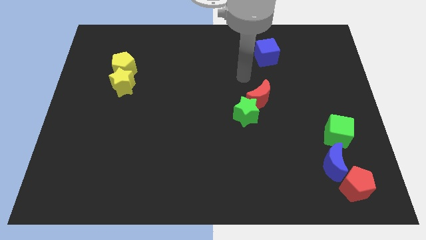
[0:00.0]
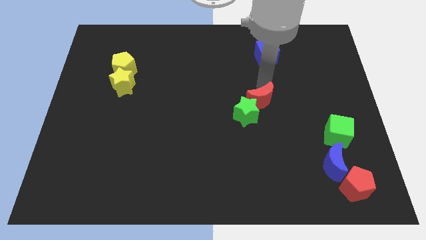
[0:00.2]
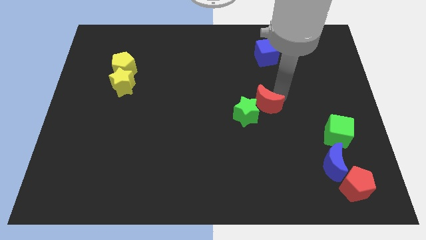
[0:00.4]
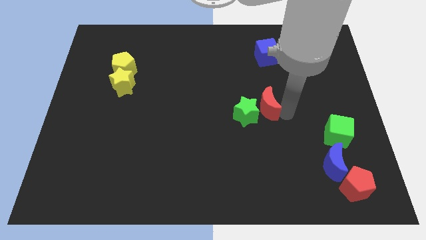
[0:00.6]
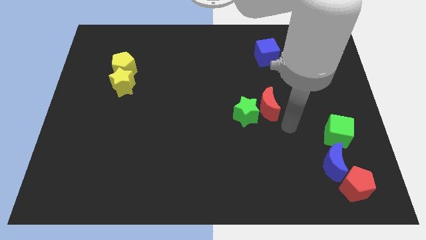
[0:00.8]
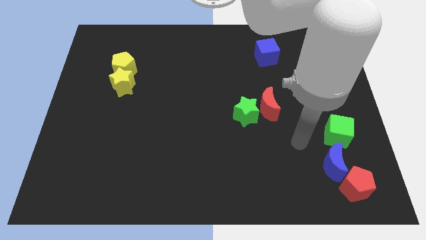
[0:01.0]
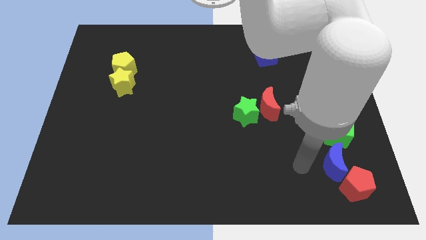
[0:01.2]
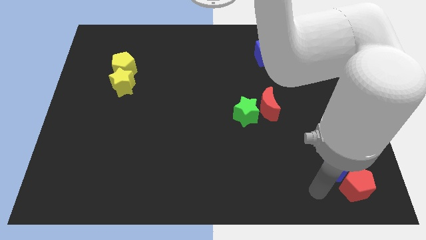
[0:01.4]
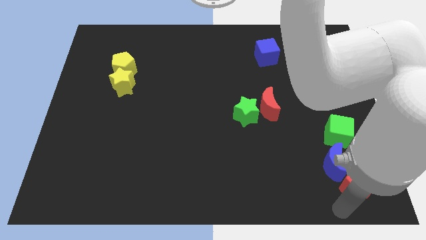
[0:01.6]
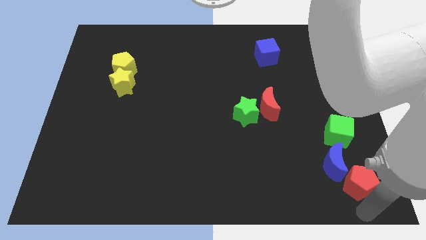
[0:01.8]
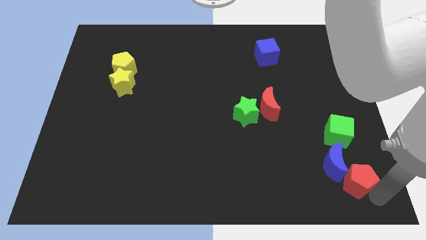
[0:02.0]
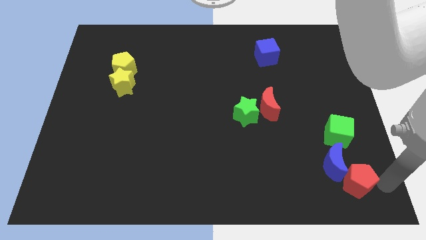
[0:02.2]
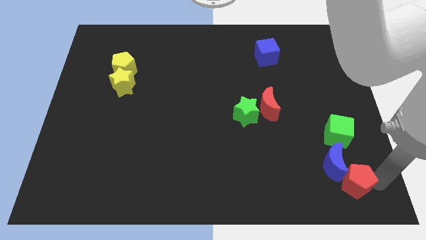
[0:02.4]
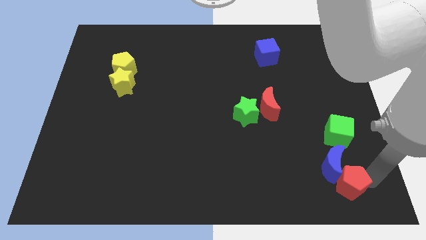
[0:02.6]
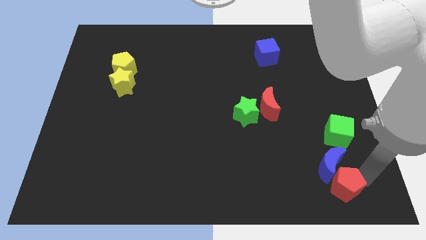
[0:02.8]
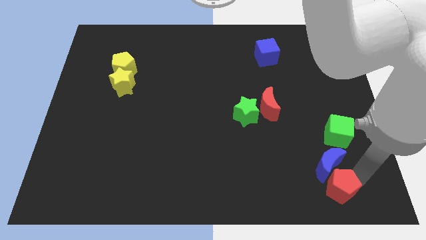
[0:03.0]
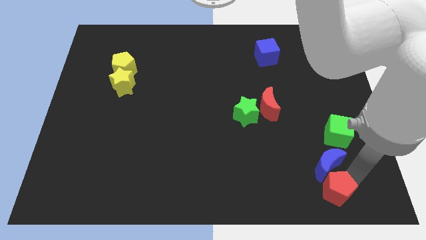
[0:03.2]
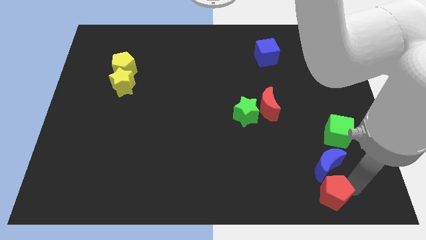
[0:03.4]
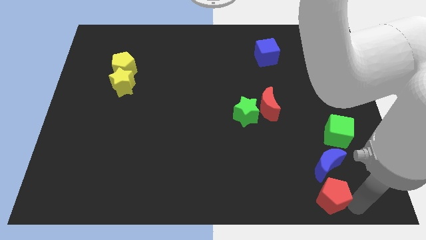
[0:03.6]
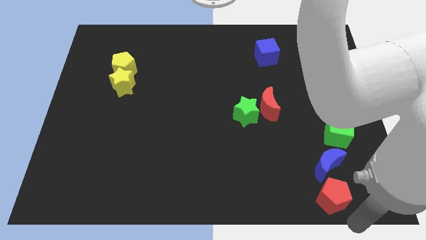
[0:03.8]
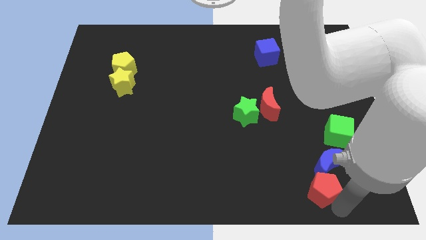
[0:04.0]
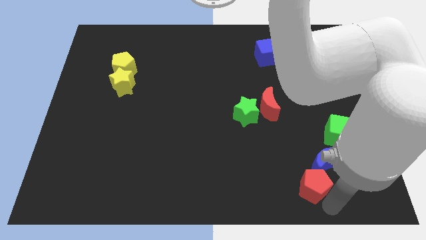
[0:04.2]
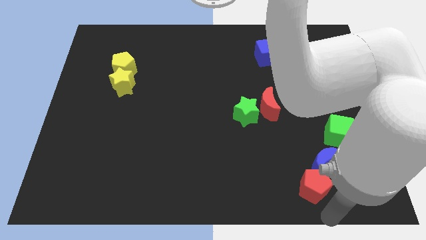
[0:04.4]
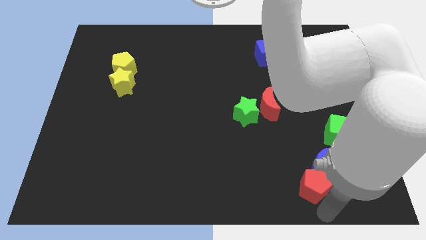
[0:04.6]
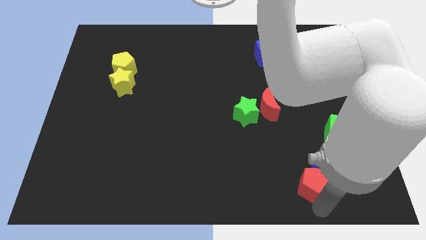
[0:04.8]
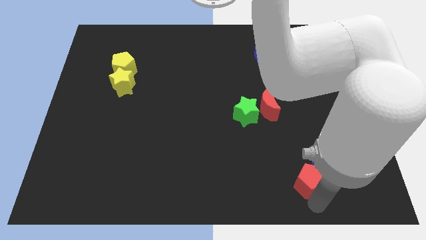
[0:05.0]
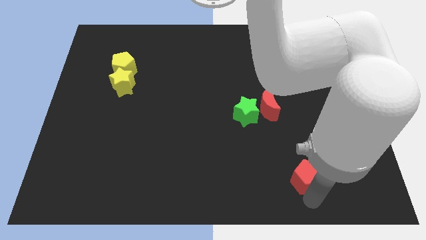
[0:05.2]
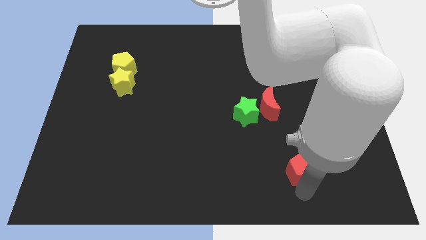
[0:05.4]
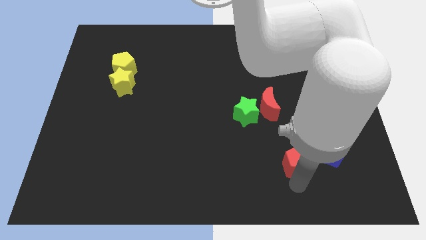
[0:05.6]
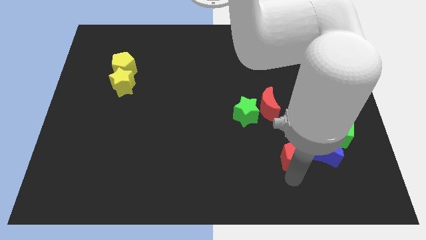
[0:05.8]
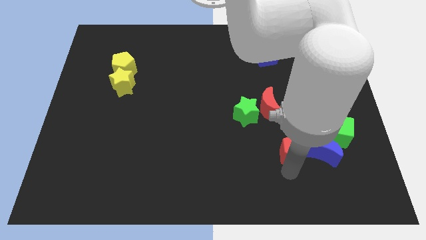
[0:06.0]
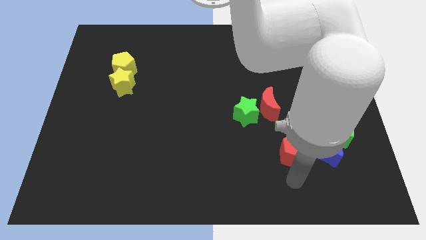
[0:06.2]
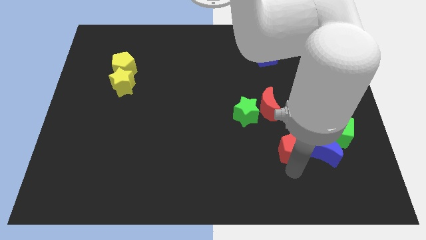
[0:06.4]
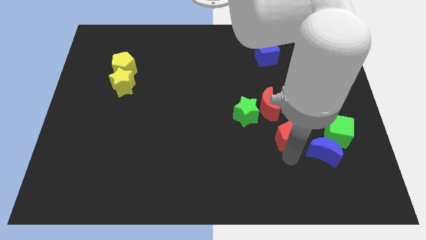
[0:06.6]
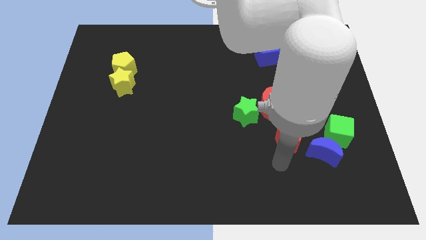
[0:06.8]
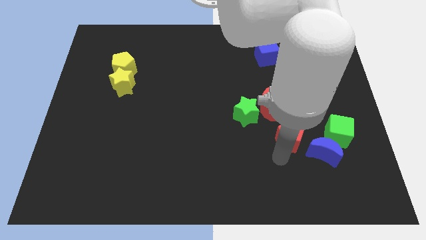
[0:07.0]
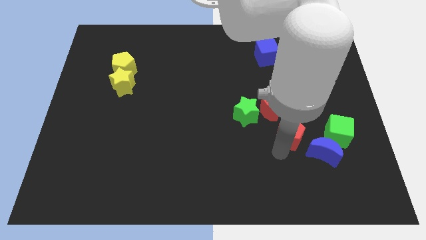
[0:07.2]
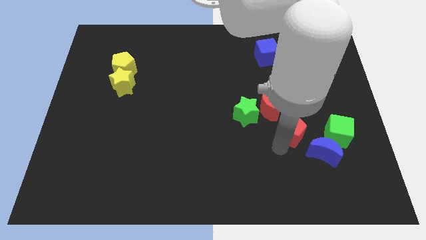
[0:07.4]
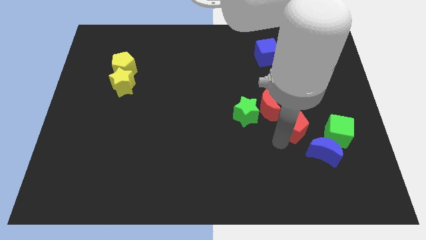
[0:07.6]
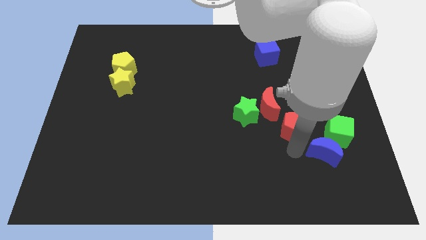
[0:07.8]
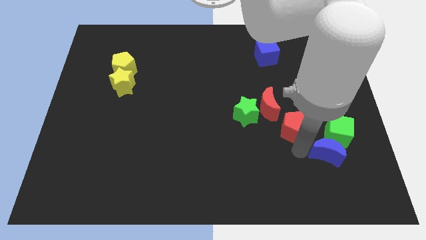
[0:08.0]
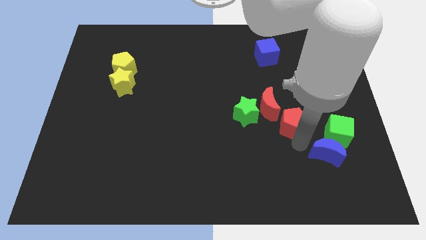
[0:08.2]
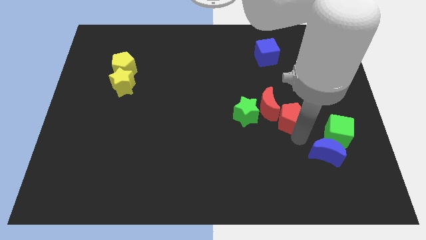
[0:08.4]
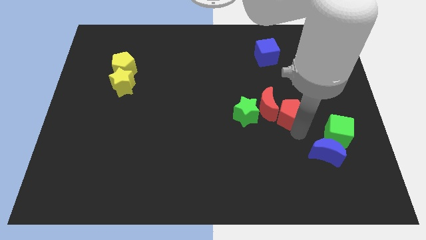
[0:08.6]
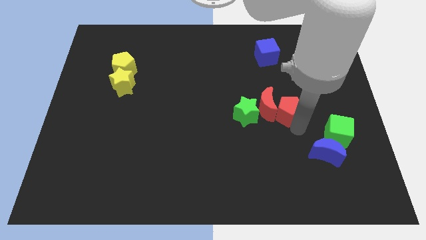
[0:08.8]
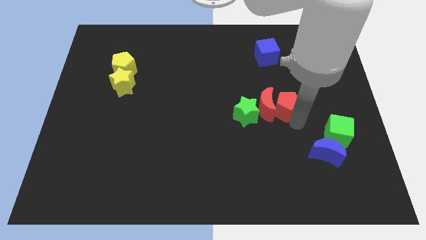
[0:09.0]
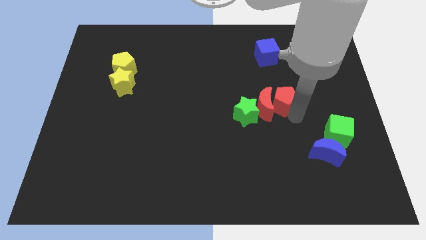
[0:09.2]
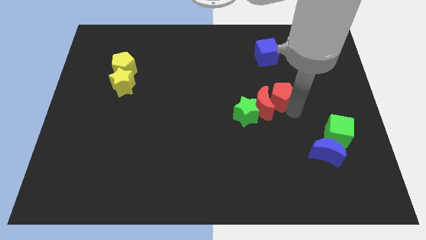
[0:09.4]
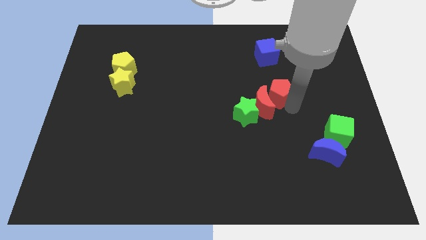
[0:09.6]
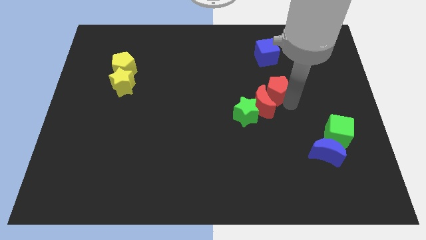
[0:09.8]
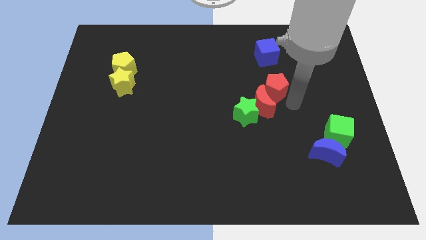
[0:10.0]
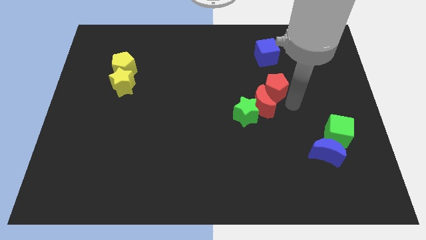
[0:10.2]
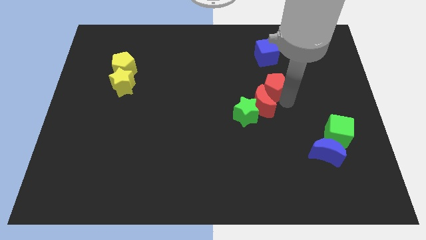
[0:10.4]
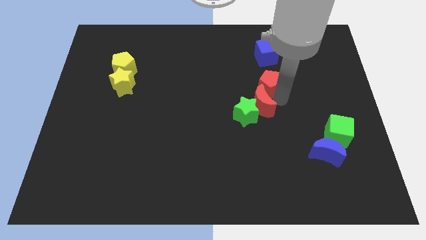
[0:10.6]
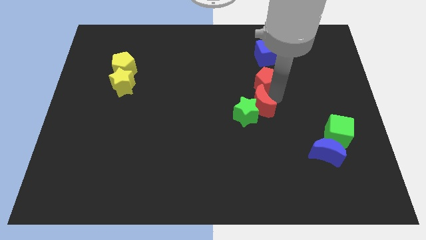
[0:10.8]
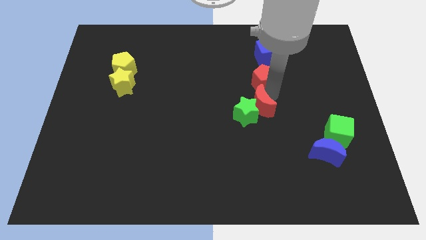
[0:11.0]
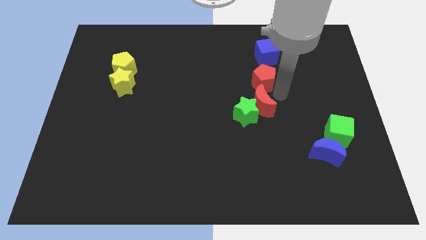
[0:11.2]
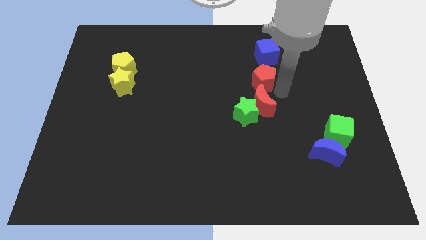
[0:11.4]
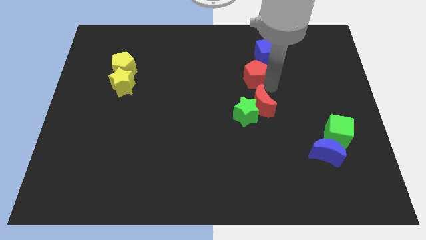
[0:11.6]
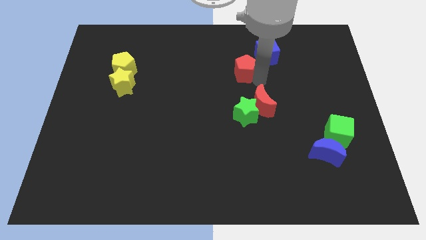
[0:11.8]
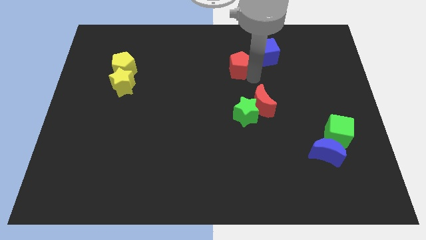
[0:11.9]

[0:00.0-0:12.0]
slide the red pentagon to the left of the blue cube

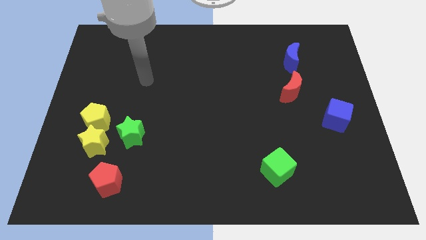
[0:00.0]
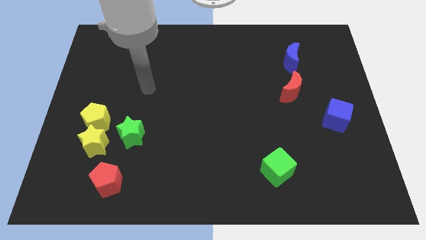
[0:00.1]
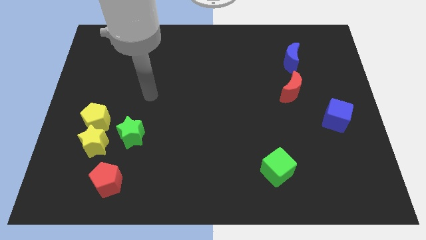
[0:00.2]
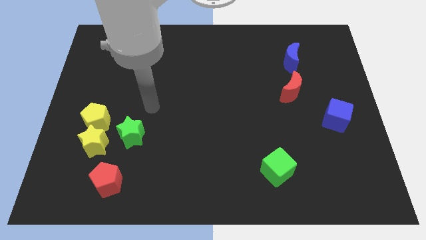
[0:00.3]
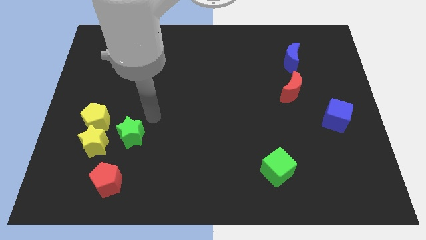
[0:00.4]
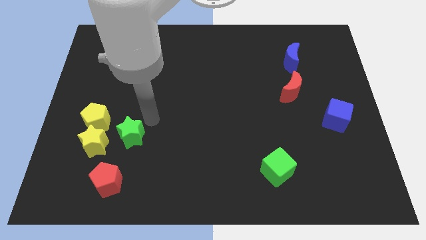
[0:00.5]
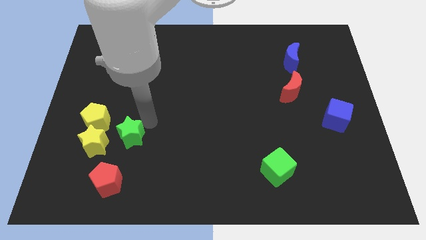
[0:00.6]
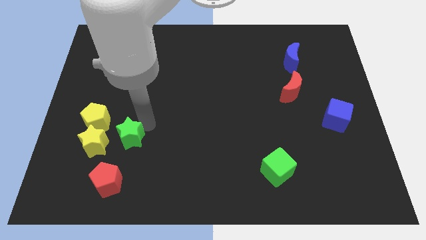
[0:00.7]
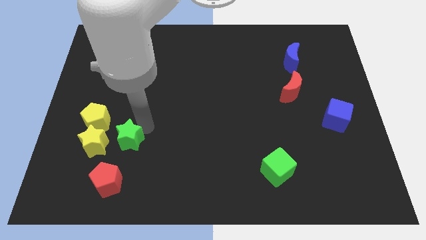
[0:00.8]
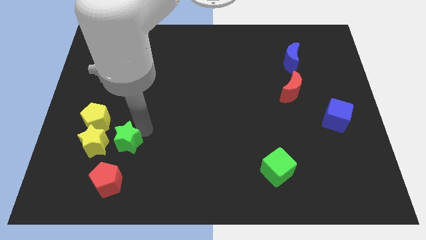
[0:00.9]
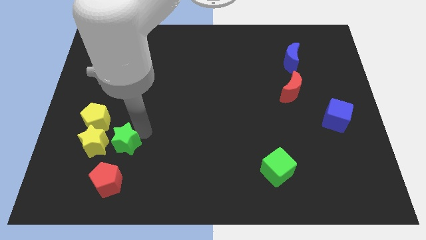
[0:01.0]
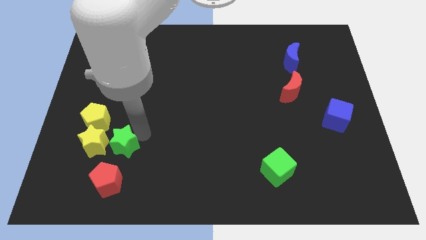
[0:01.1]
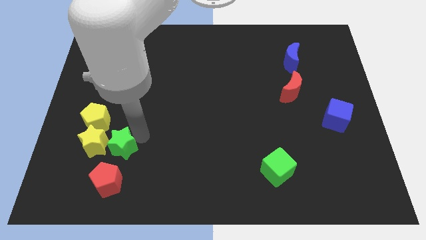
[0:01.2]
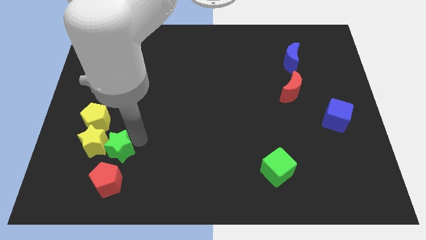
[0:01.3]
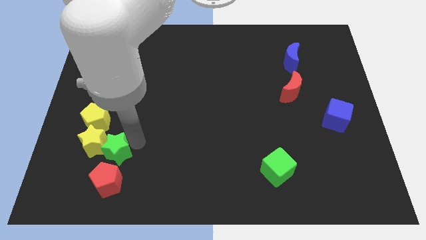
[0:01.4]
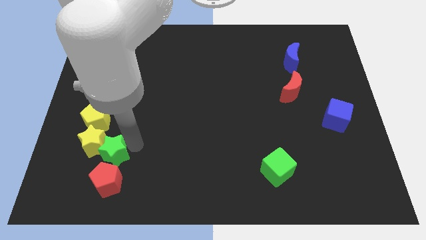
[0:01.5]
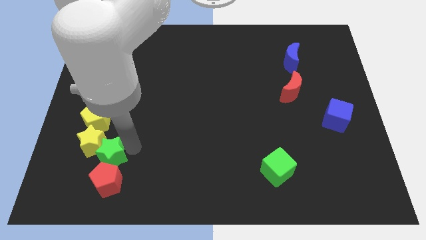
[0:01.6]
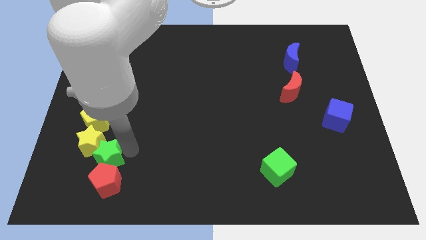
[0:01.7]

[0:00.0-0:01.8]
slide the green star to the bottom of the yellow pentagon
